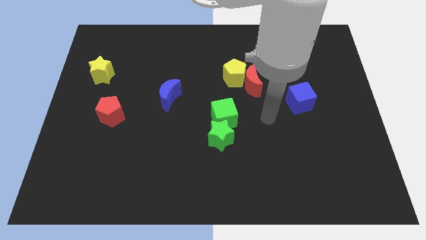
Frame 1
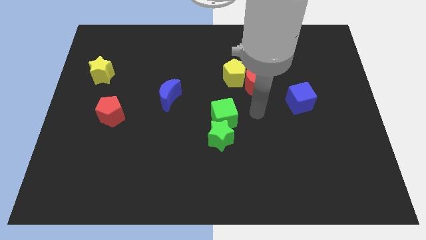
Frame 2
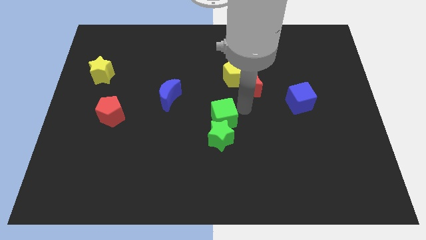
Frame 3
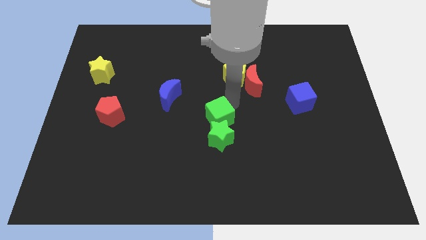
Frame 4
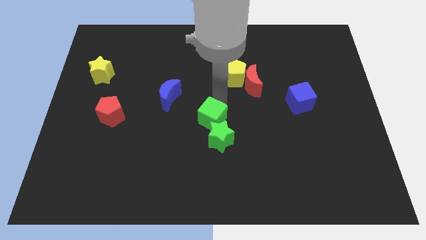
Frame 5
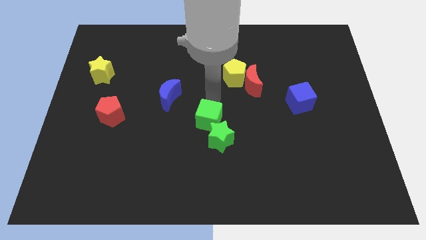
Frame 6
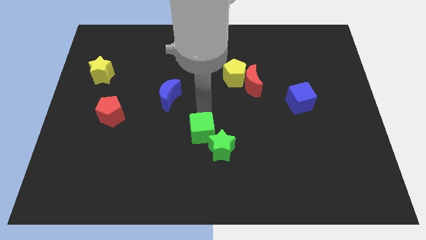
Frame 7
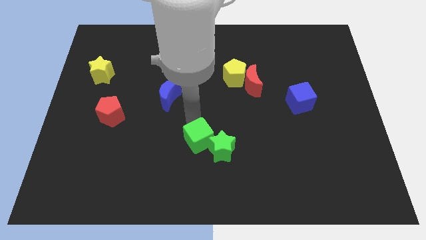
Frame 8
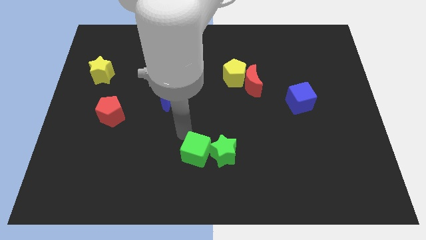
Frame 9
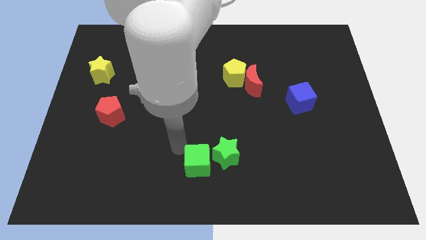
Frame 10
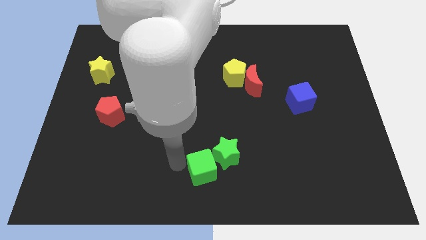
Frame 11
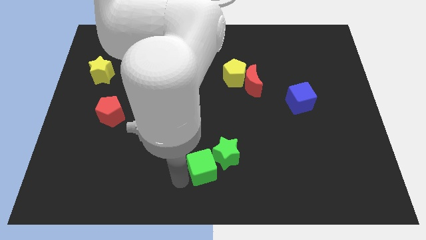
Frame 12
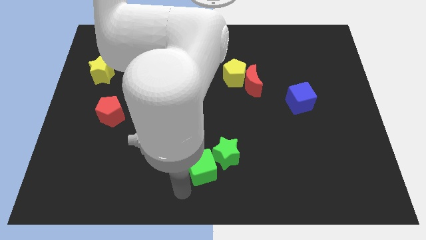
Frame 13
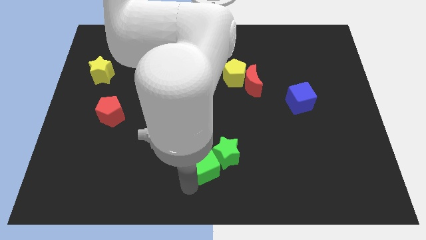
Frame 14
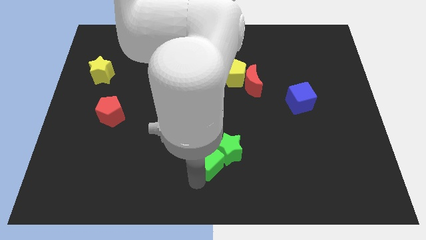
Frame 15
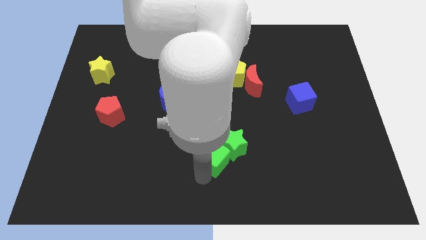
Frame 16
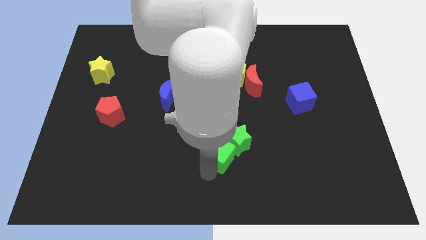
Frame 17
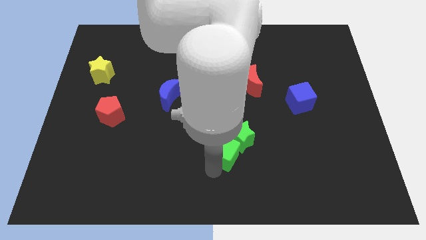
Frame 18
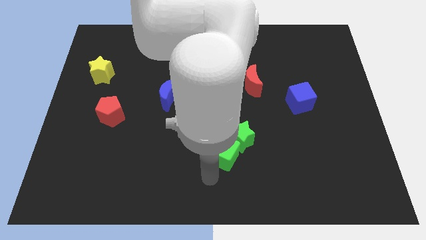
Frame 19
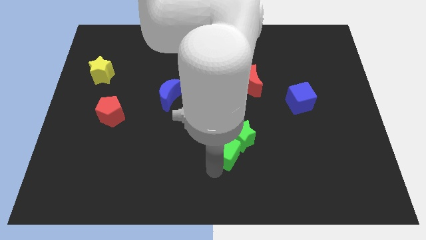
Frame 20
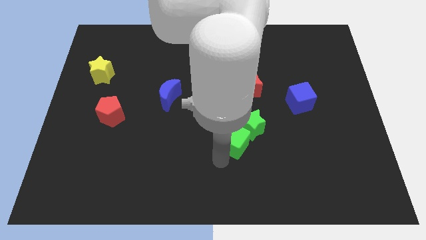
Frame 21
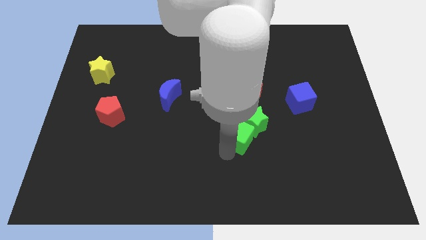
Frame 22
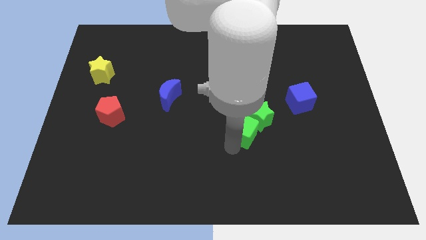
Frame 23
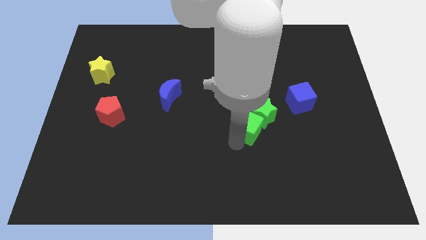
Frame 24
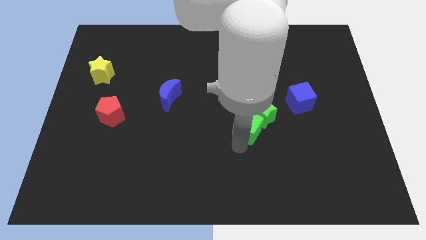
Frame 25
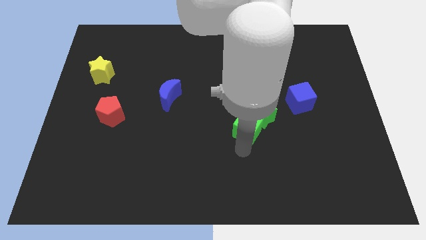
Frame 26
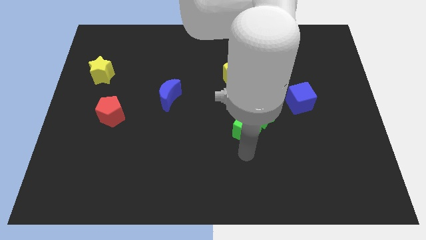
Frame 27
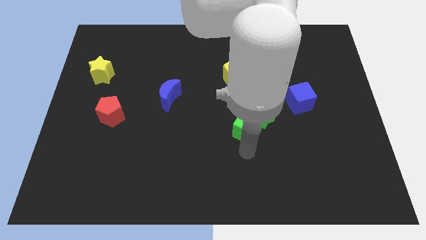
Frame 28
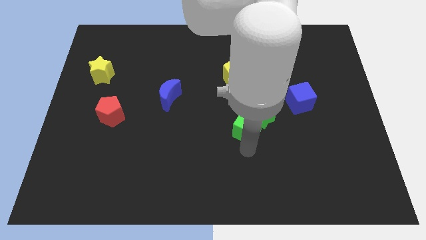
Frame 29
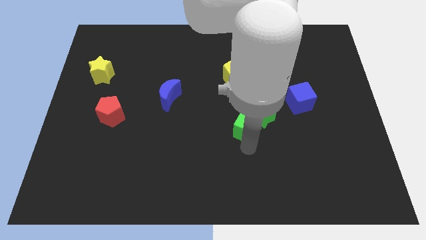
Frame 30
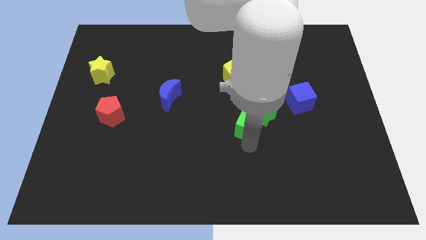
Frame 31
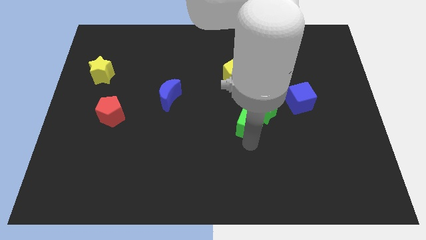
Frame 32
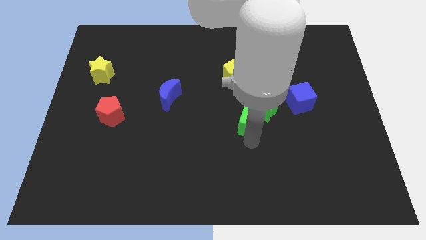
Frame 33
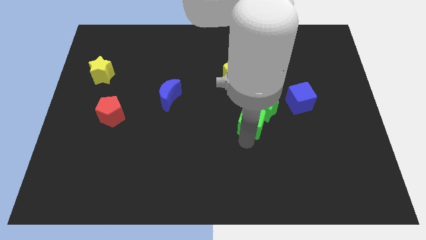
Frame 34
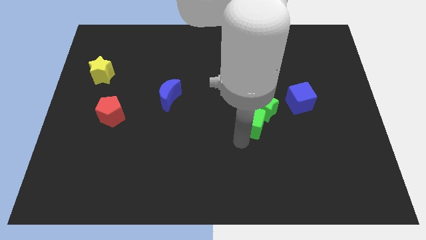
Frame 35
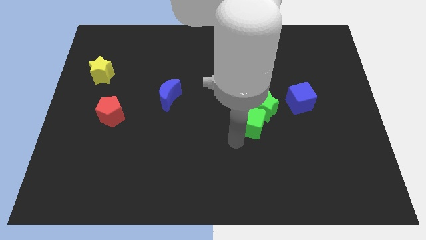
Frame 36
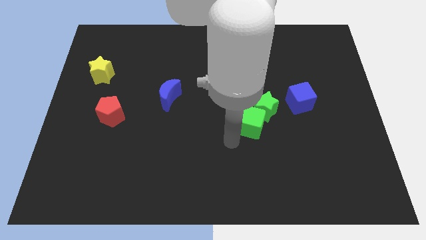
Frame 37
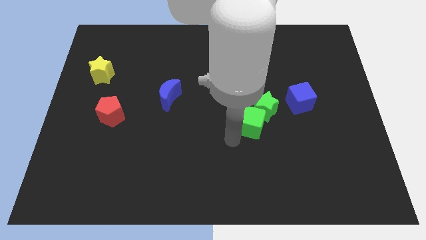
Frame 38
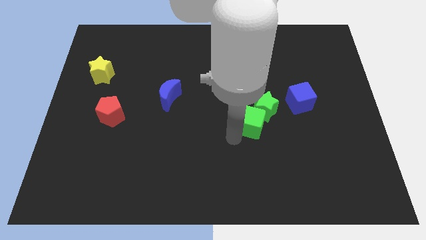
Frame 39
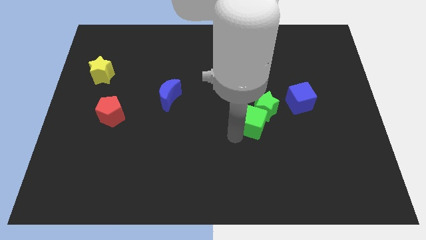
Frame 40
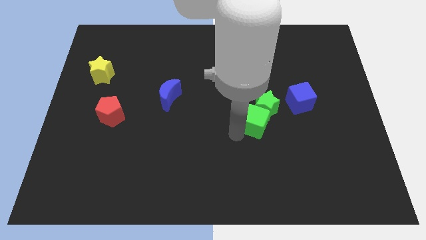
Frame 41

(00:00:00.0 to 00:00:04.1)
slightly move the green cube right

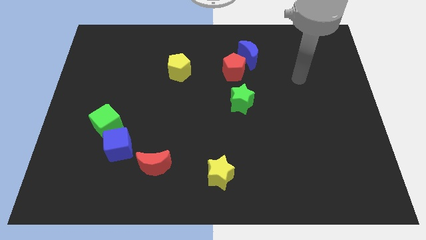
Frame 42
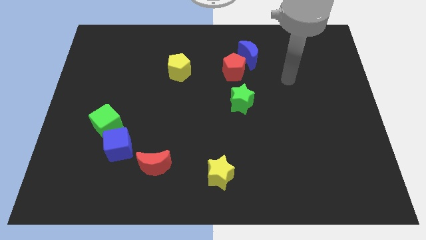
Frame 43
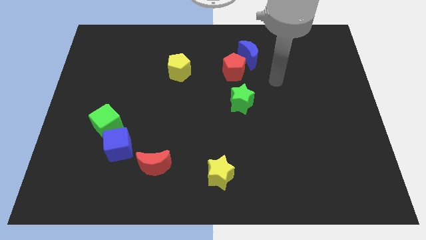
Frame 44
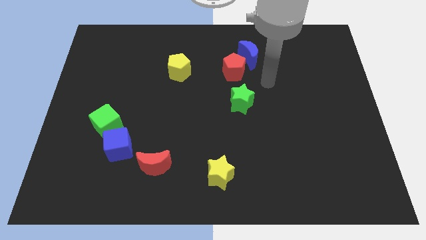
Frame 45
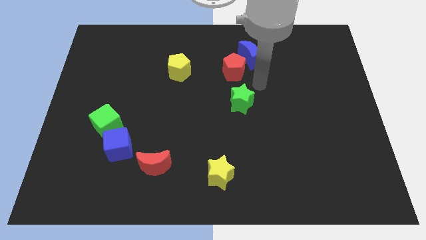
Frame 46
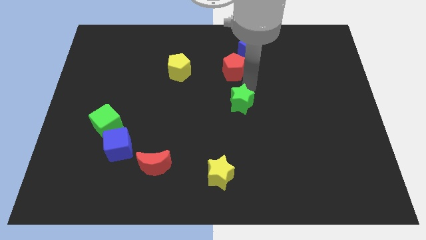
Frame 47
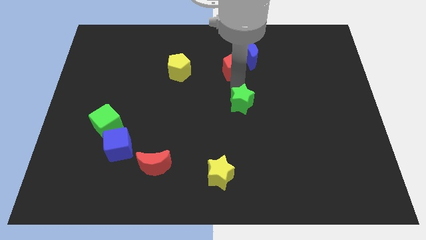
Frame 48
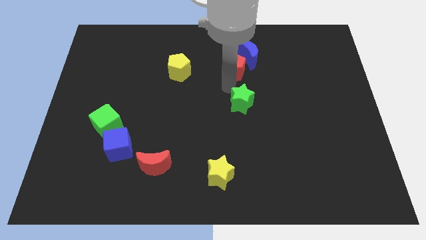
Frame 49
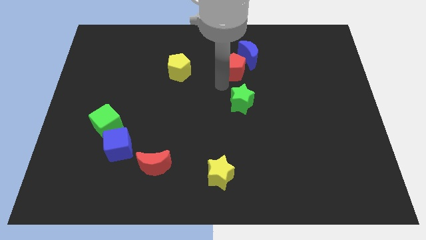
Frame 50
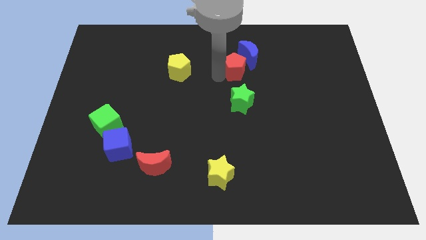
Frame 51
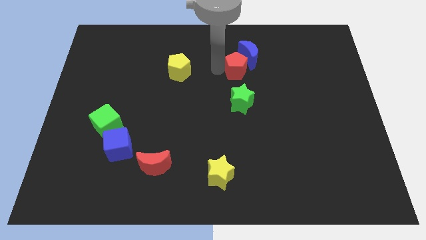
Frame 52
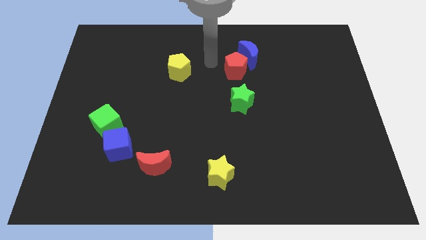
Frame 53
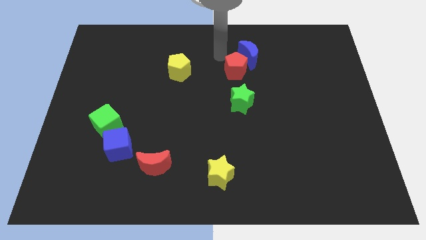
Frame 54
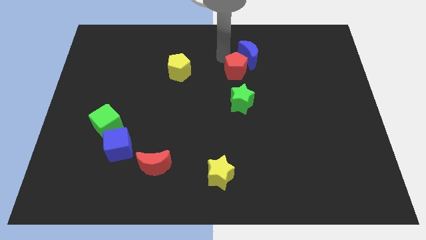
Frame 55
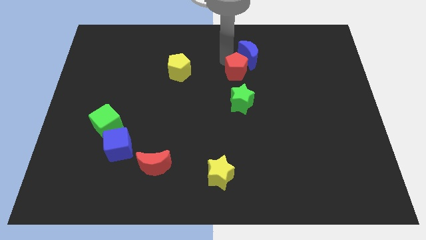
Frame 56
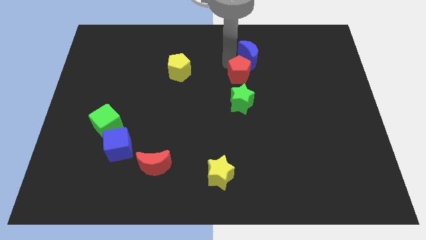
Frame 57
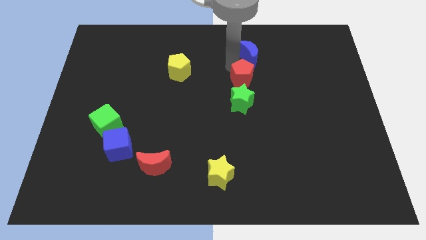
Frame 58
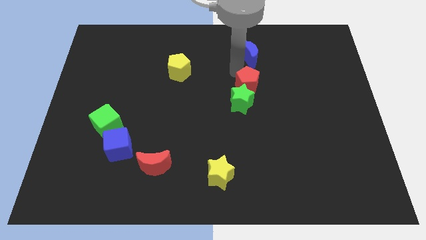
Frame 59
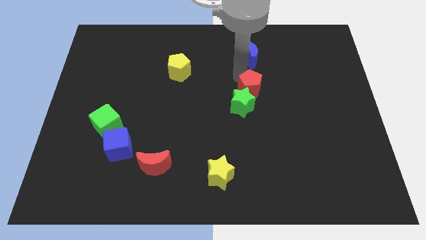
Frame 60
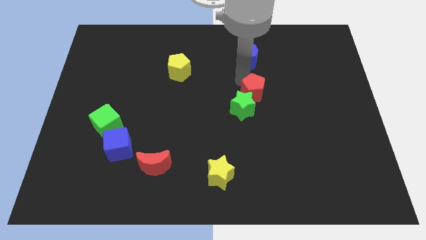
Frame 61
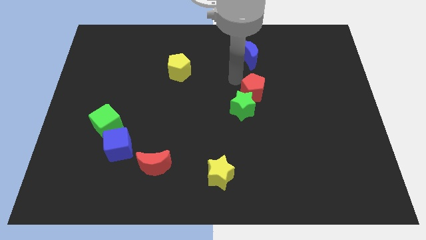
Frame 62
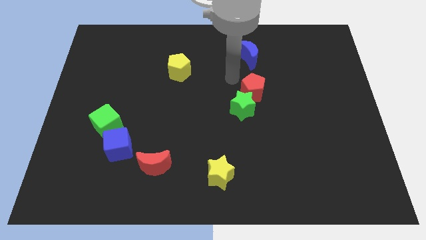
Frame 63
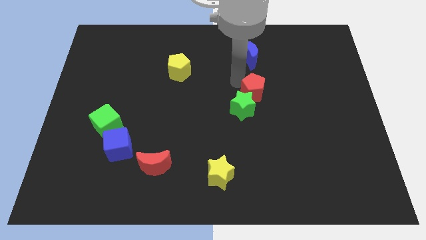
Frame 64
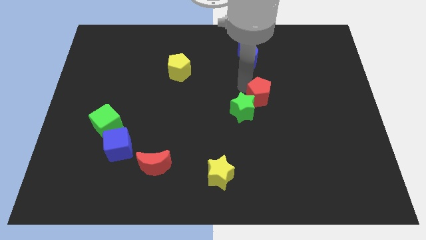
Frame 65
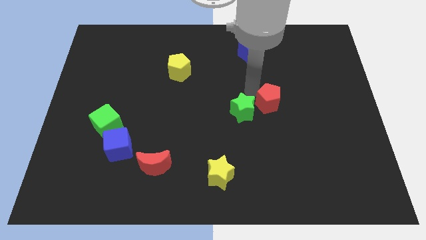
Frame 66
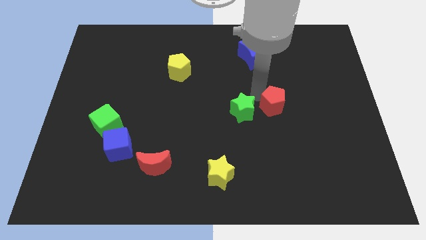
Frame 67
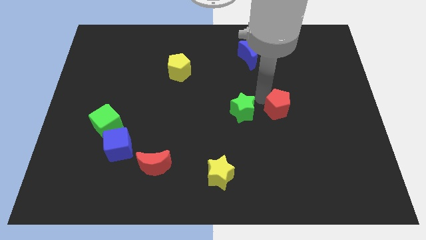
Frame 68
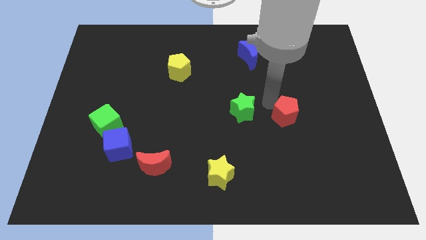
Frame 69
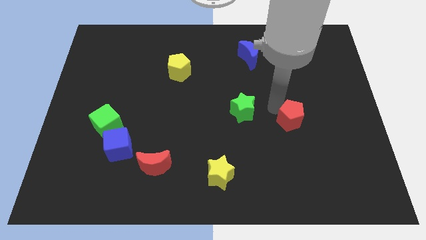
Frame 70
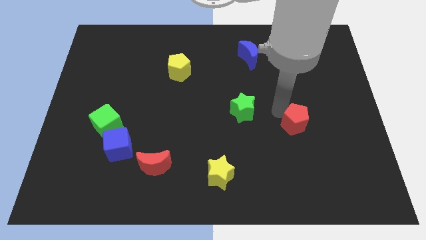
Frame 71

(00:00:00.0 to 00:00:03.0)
push the red pentagon downwards and then right

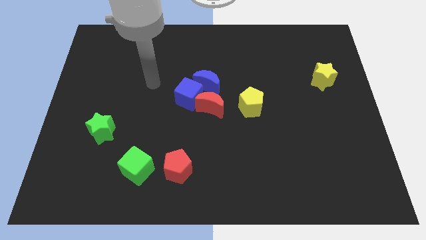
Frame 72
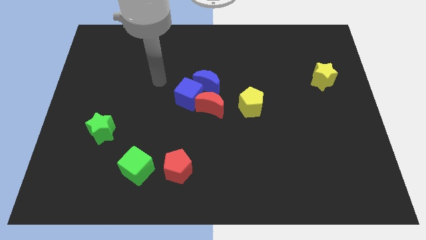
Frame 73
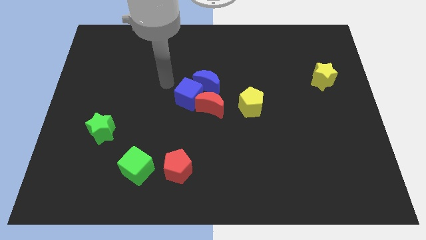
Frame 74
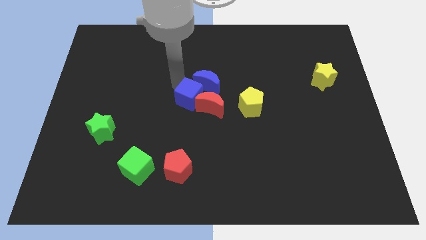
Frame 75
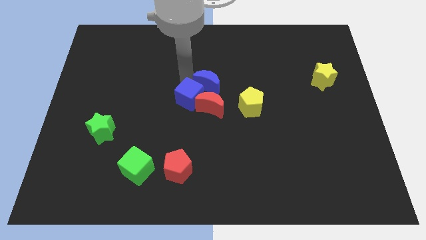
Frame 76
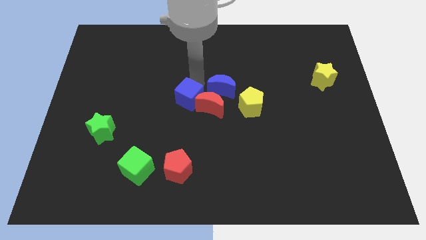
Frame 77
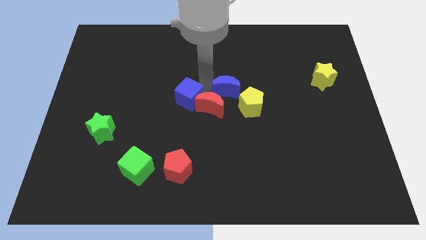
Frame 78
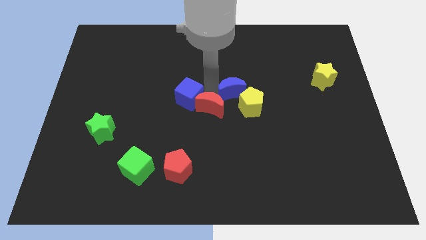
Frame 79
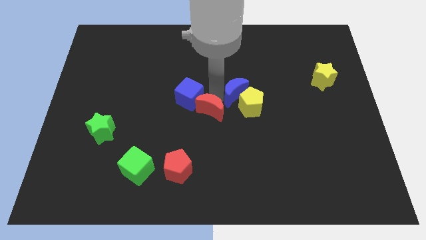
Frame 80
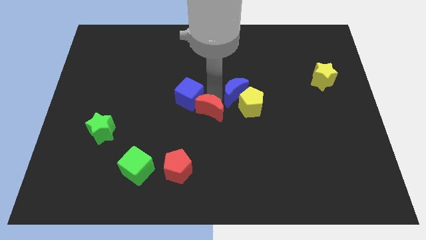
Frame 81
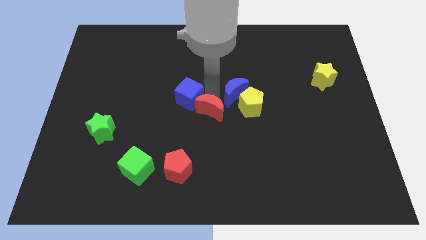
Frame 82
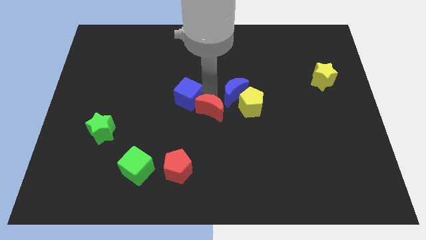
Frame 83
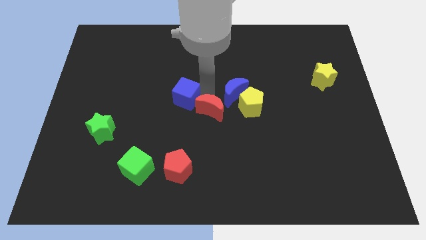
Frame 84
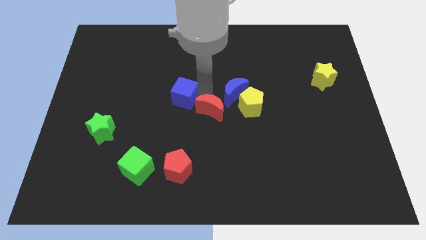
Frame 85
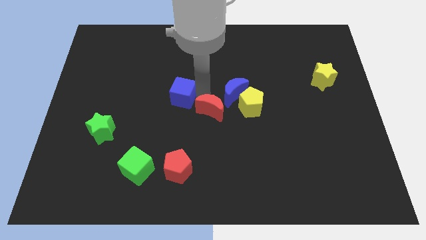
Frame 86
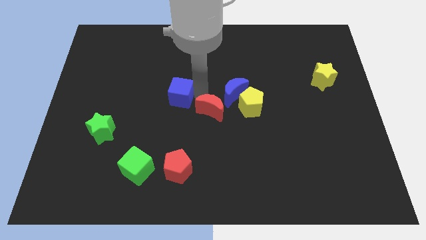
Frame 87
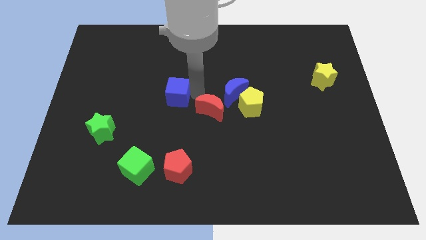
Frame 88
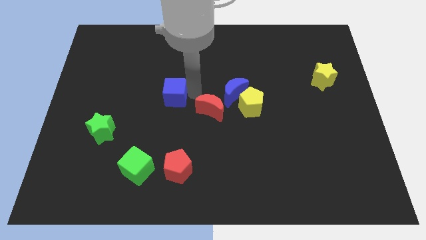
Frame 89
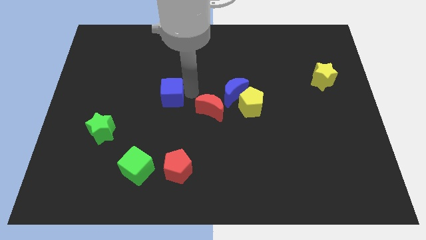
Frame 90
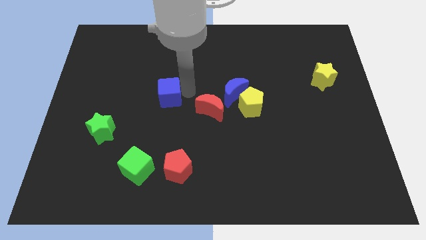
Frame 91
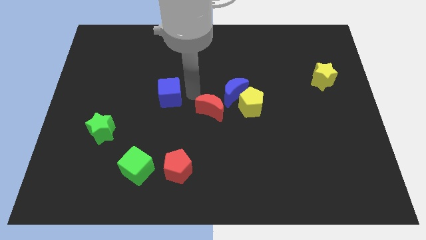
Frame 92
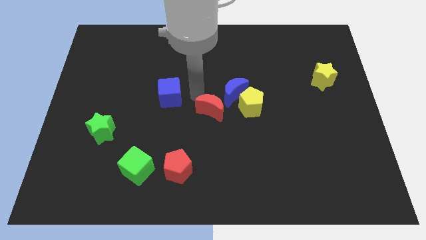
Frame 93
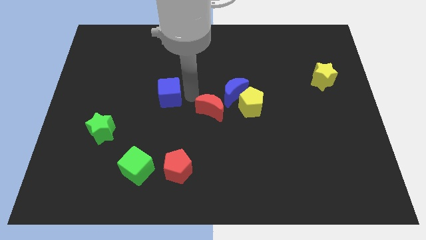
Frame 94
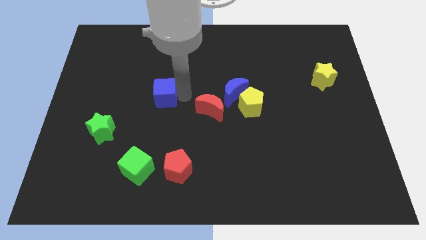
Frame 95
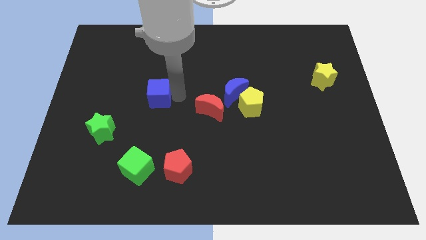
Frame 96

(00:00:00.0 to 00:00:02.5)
move the blue cube left somewhat
